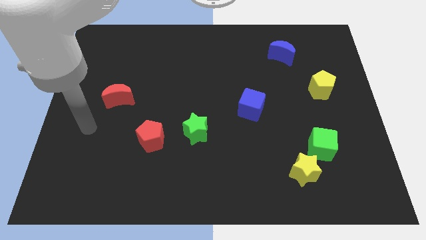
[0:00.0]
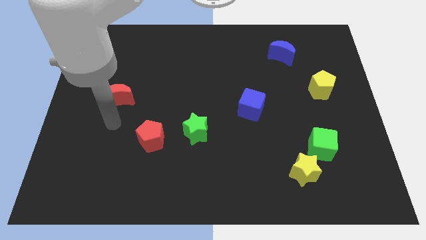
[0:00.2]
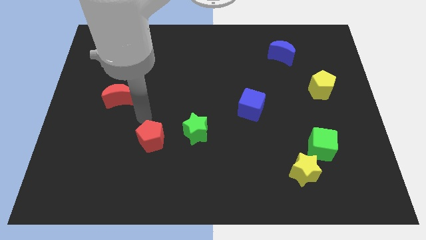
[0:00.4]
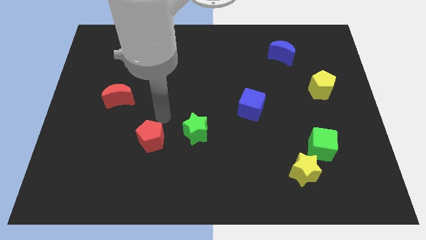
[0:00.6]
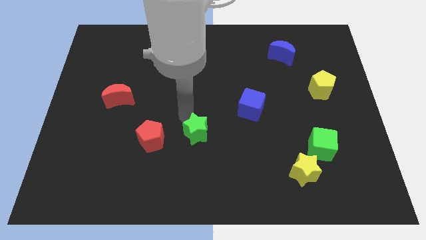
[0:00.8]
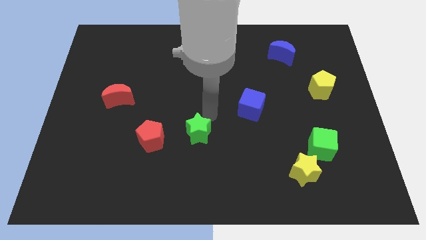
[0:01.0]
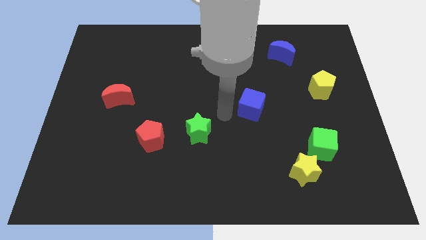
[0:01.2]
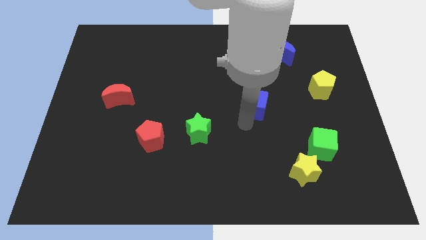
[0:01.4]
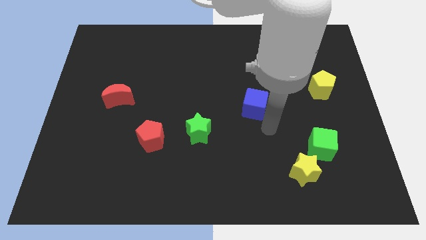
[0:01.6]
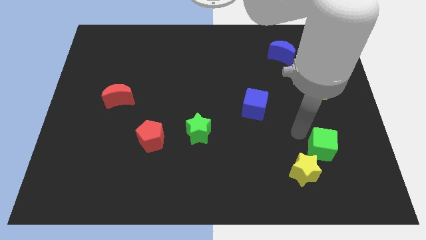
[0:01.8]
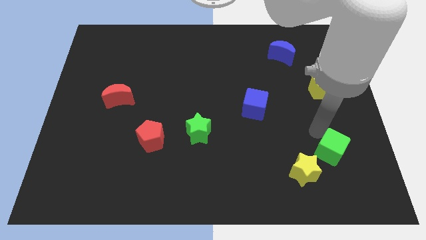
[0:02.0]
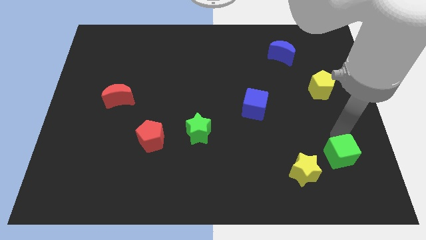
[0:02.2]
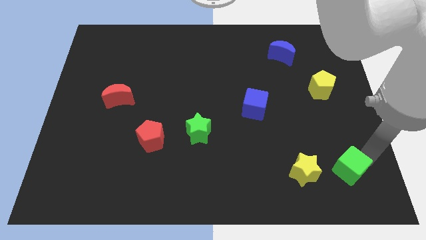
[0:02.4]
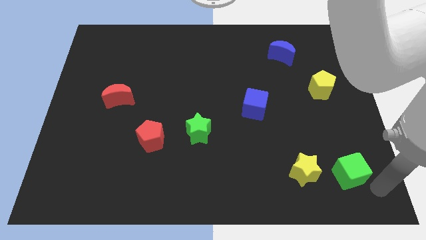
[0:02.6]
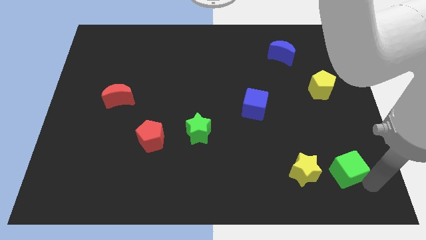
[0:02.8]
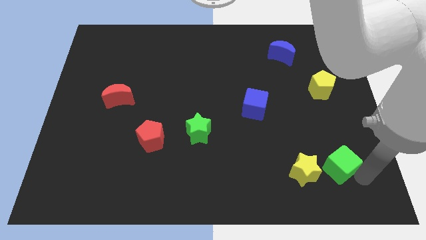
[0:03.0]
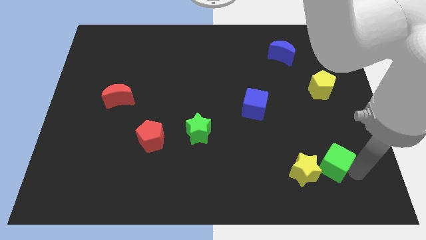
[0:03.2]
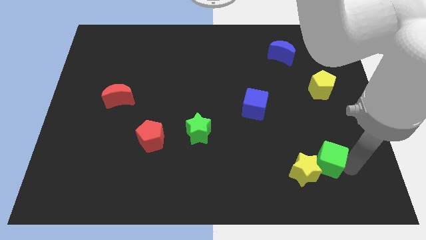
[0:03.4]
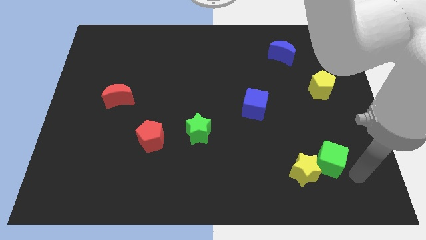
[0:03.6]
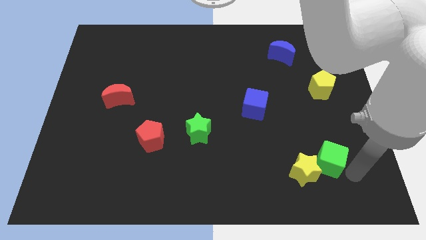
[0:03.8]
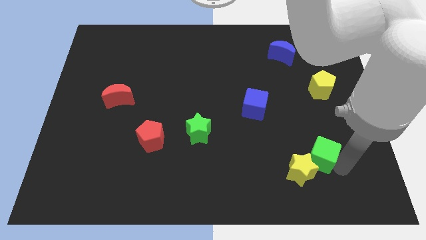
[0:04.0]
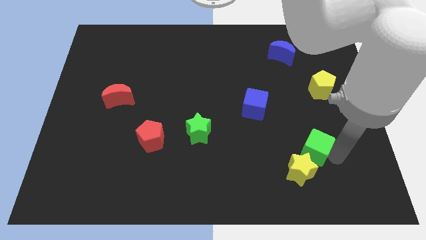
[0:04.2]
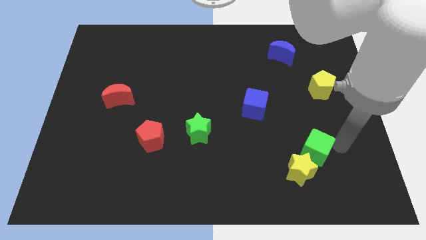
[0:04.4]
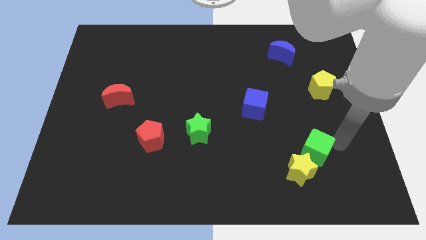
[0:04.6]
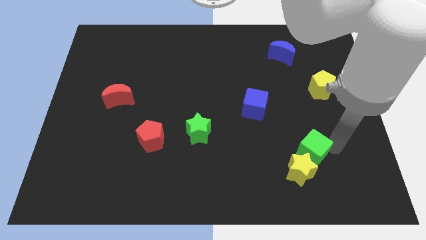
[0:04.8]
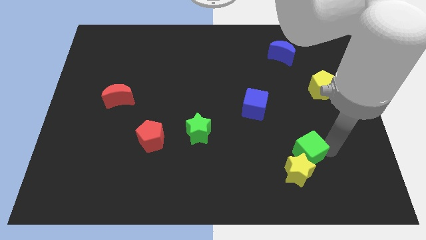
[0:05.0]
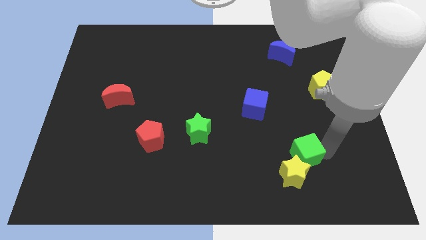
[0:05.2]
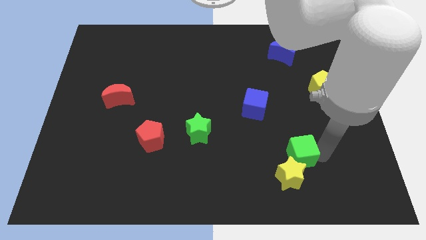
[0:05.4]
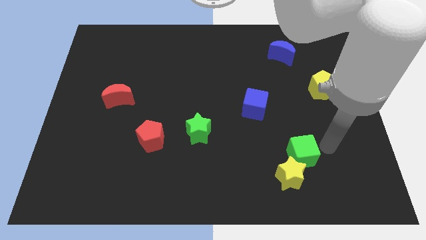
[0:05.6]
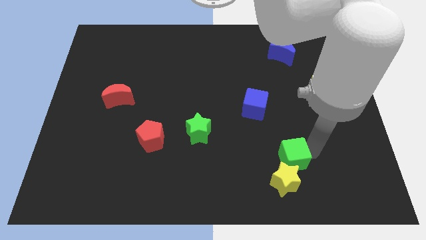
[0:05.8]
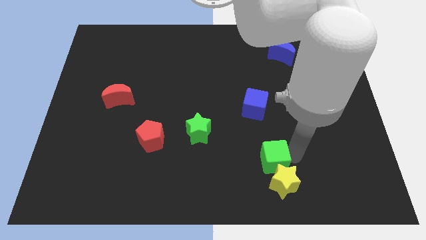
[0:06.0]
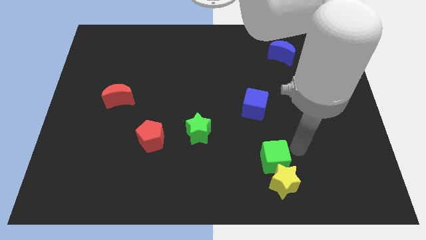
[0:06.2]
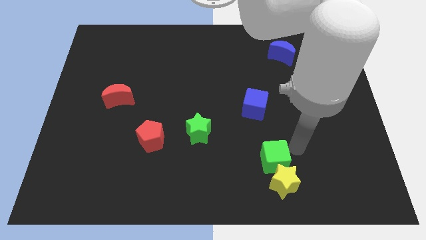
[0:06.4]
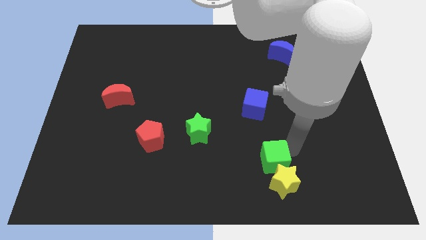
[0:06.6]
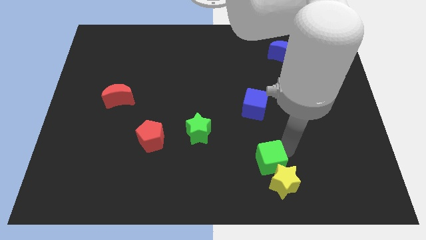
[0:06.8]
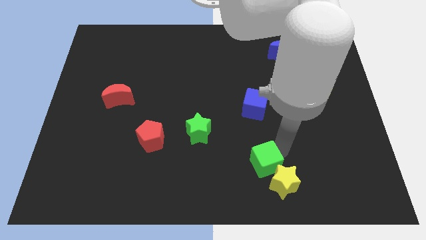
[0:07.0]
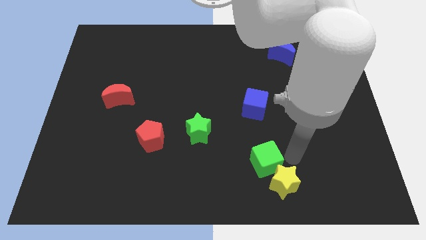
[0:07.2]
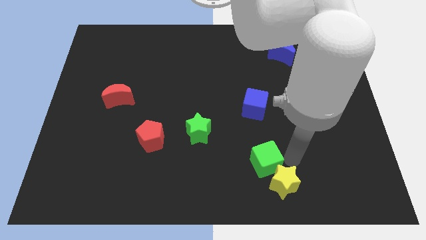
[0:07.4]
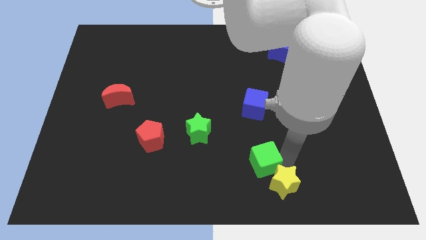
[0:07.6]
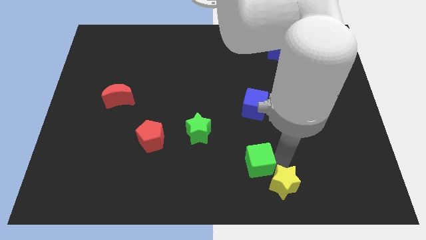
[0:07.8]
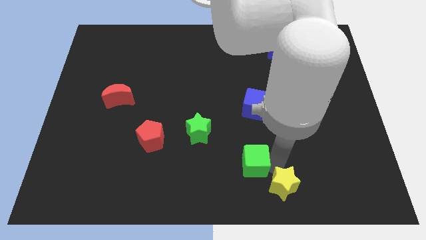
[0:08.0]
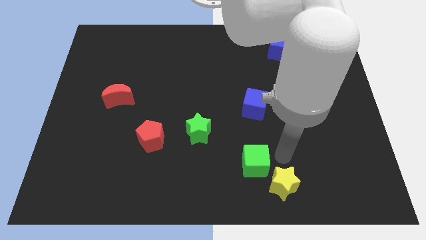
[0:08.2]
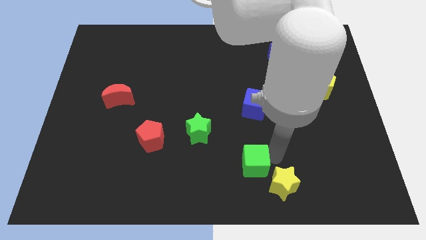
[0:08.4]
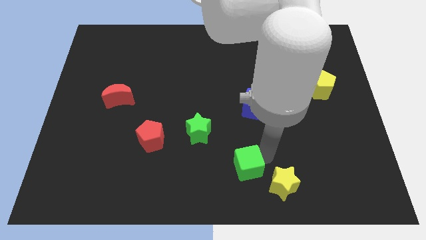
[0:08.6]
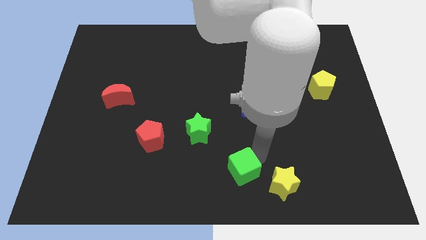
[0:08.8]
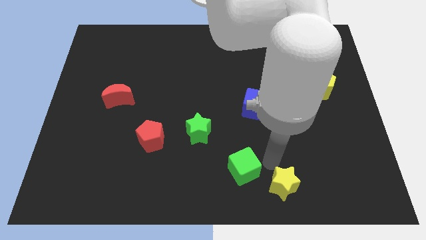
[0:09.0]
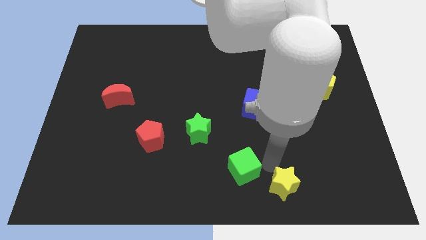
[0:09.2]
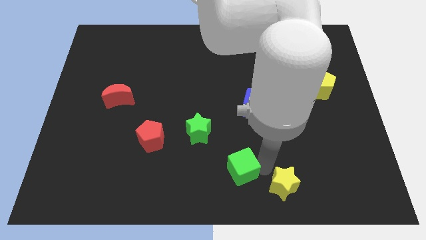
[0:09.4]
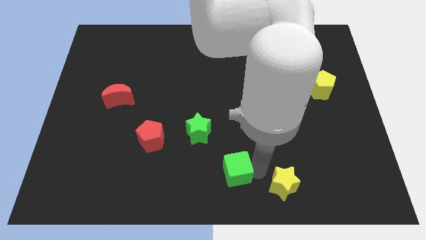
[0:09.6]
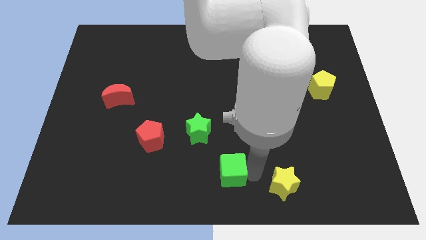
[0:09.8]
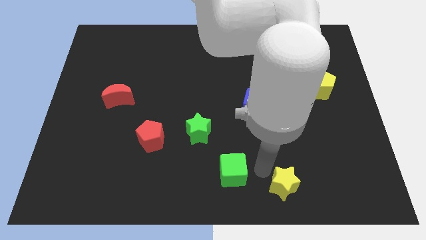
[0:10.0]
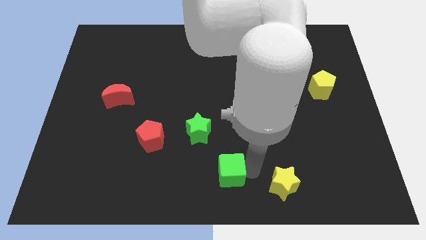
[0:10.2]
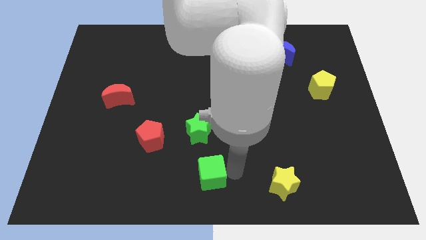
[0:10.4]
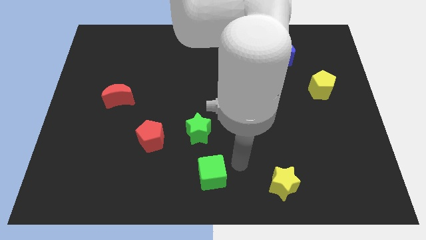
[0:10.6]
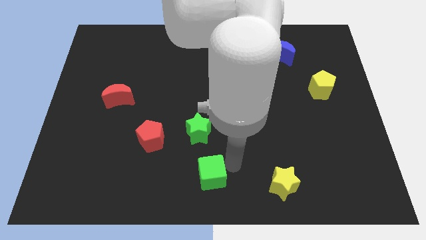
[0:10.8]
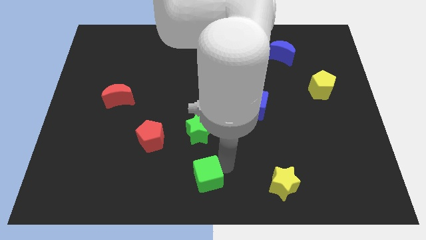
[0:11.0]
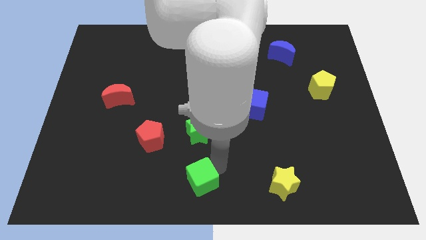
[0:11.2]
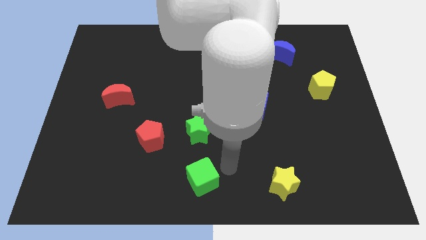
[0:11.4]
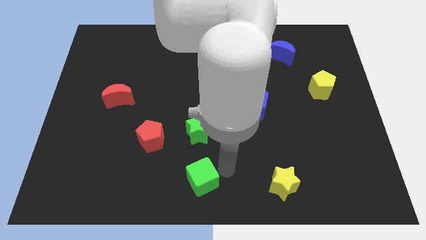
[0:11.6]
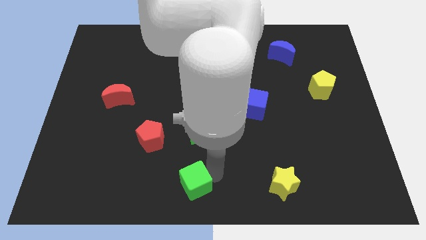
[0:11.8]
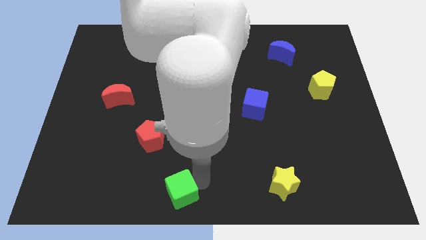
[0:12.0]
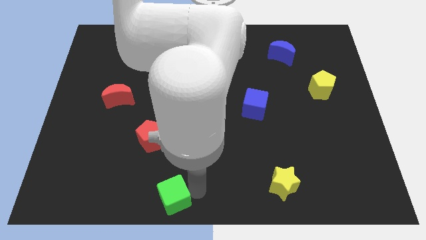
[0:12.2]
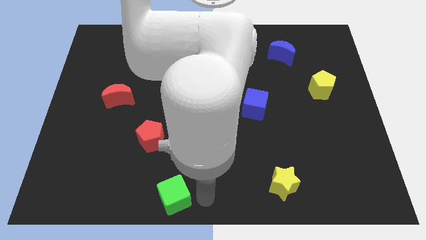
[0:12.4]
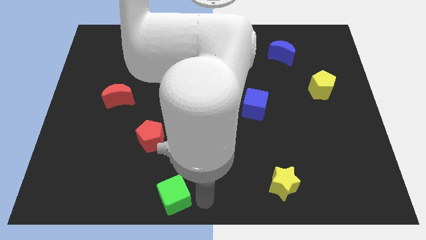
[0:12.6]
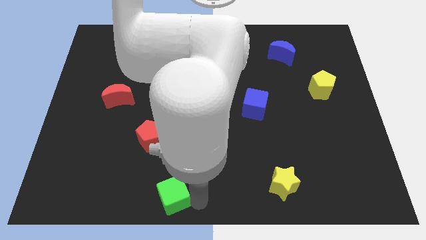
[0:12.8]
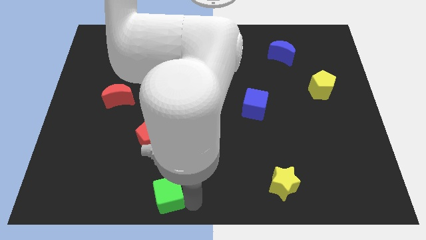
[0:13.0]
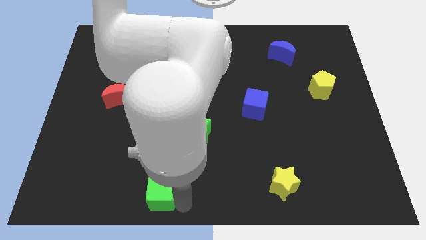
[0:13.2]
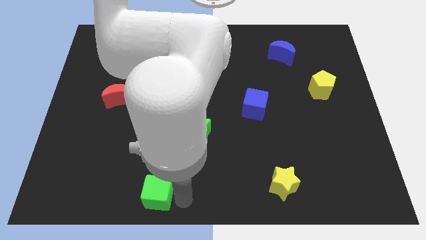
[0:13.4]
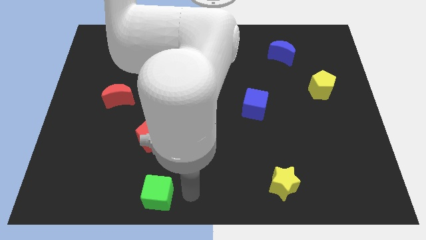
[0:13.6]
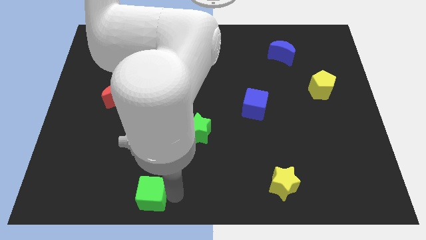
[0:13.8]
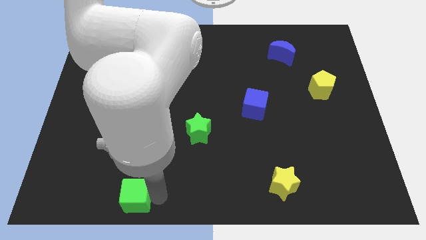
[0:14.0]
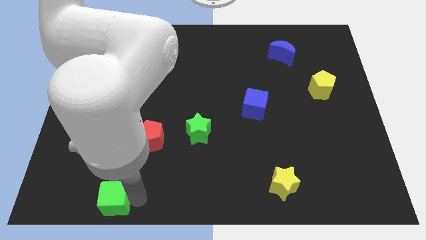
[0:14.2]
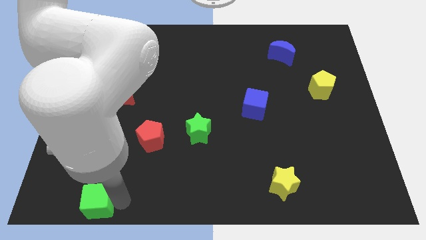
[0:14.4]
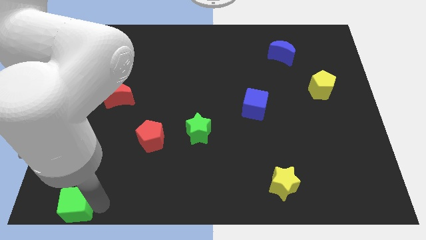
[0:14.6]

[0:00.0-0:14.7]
slide the green cube to the bottom left of the board
